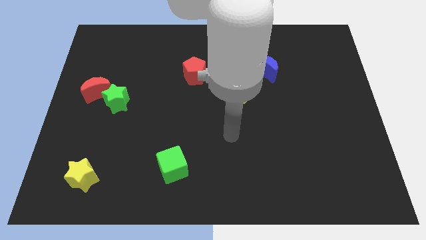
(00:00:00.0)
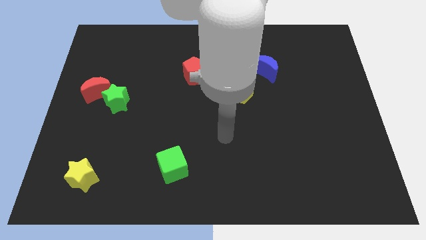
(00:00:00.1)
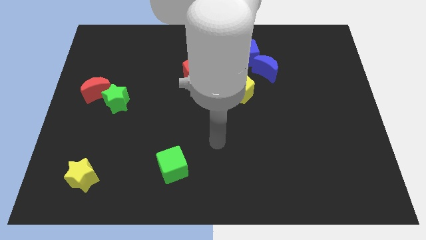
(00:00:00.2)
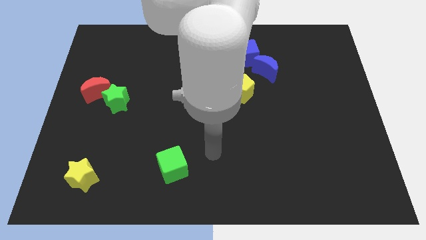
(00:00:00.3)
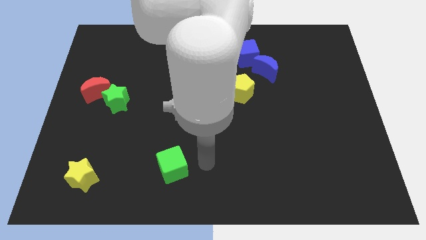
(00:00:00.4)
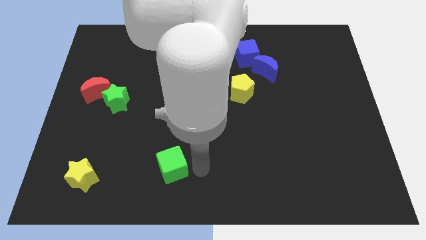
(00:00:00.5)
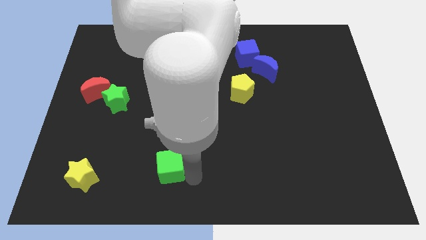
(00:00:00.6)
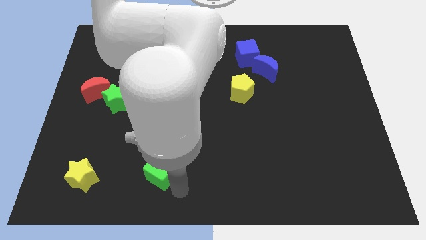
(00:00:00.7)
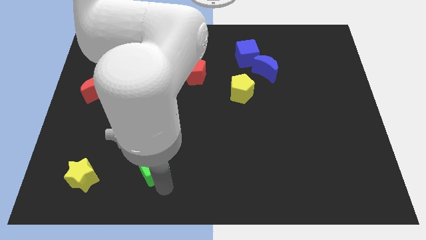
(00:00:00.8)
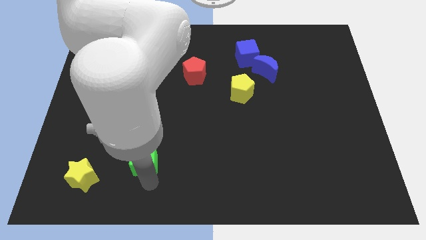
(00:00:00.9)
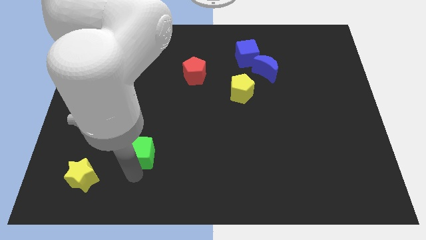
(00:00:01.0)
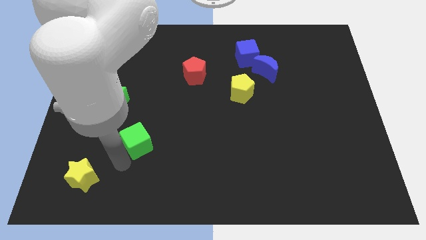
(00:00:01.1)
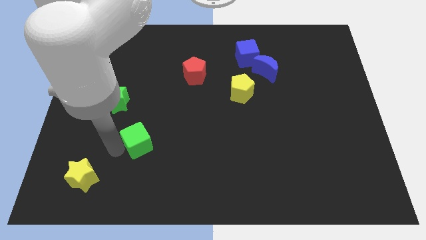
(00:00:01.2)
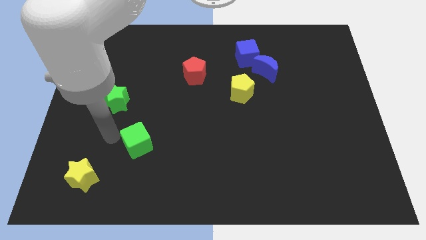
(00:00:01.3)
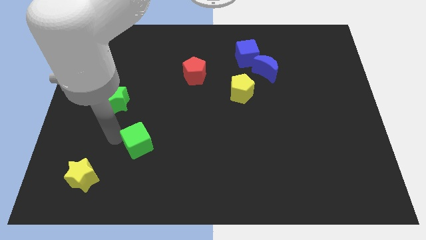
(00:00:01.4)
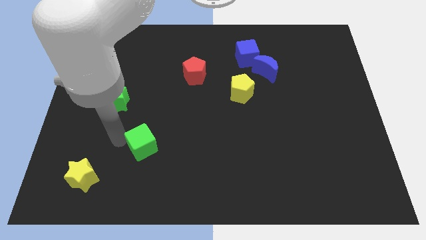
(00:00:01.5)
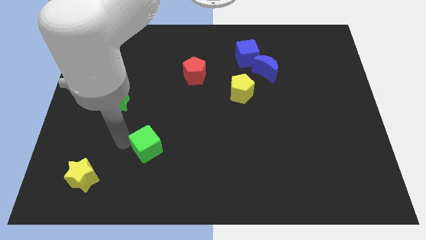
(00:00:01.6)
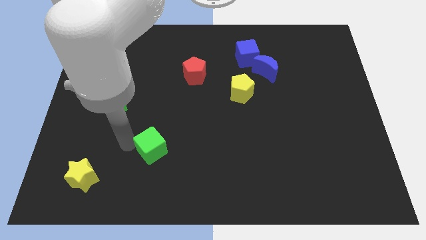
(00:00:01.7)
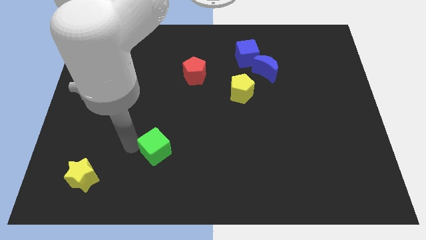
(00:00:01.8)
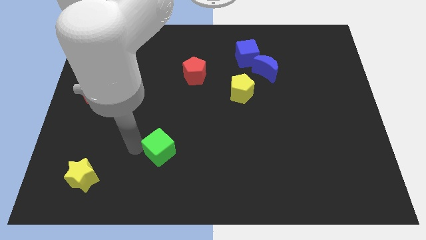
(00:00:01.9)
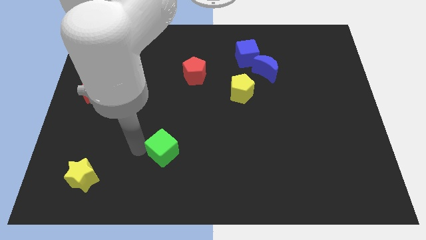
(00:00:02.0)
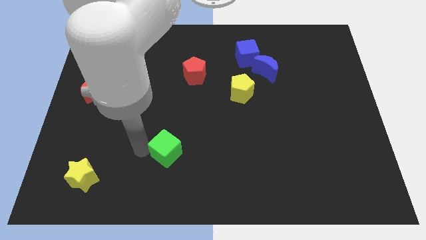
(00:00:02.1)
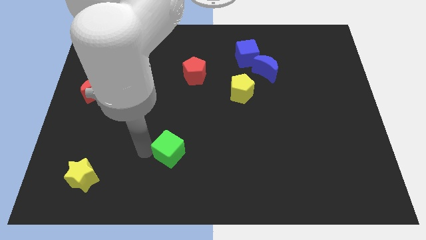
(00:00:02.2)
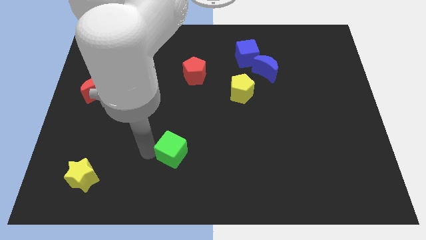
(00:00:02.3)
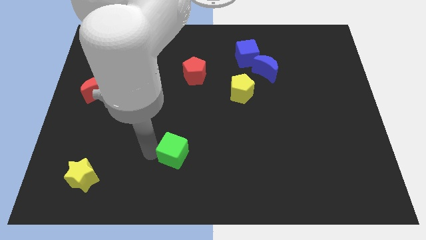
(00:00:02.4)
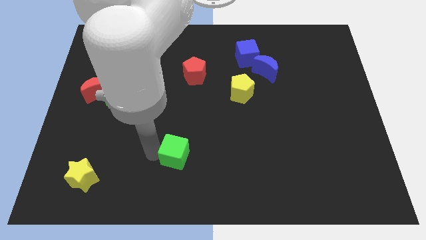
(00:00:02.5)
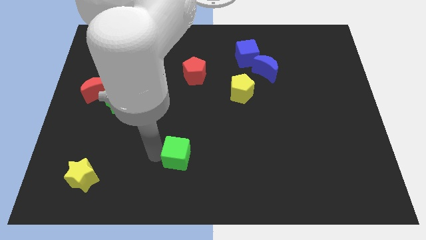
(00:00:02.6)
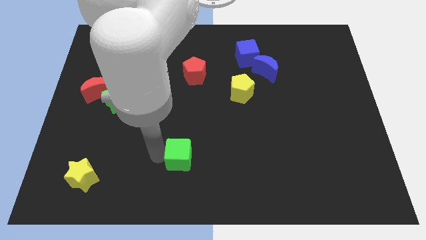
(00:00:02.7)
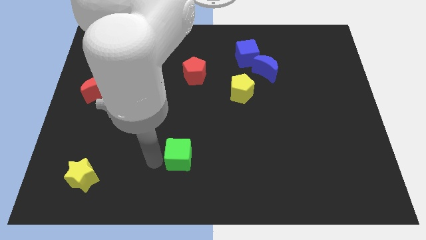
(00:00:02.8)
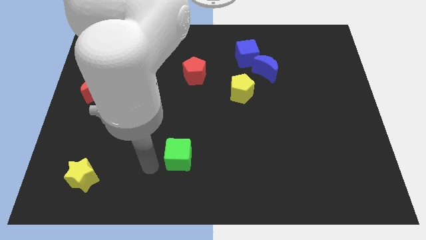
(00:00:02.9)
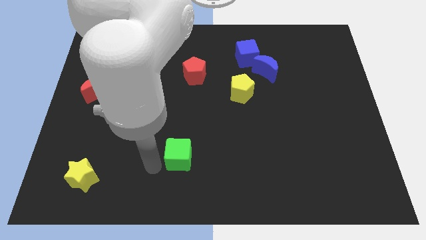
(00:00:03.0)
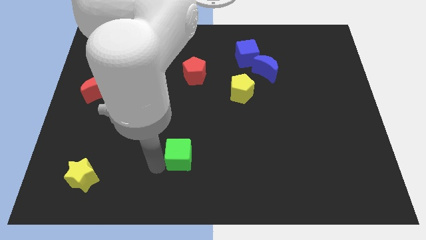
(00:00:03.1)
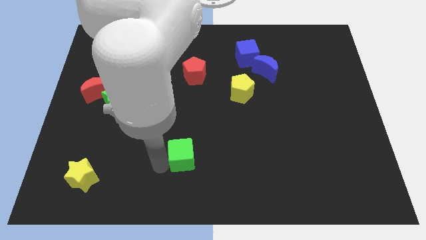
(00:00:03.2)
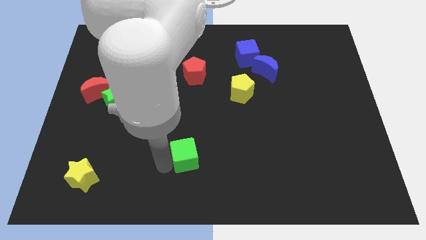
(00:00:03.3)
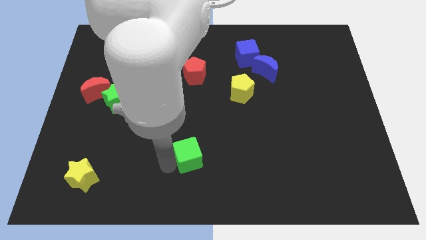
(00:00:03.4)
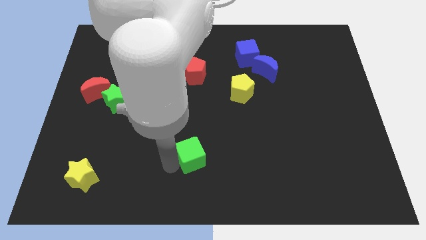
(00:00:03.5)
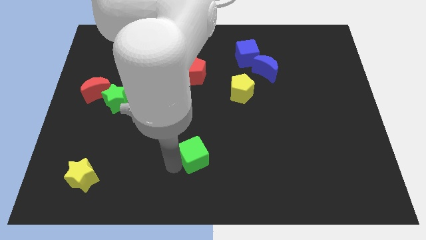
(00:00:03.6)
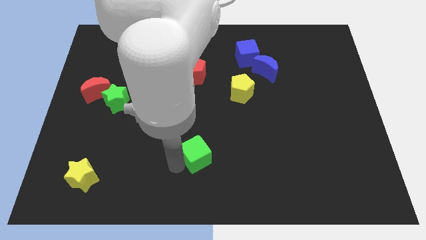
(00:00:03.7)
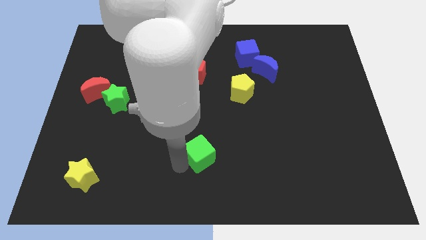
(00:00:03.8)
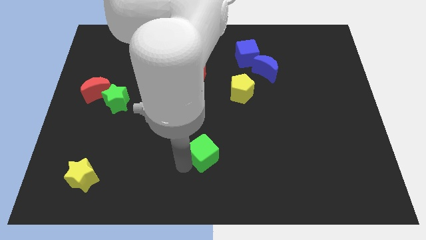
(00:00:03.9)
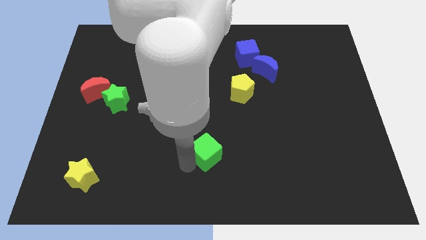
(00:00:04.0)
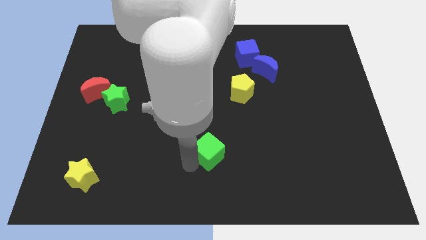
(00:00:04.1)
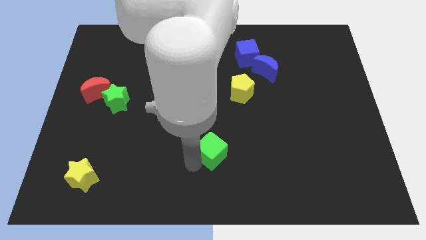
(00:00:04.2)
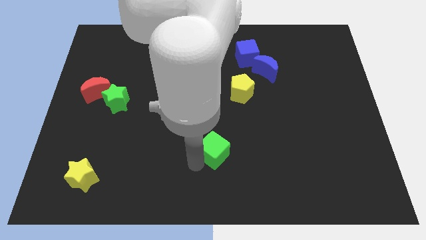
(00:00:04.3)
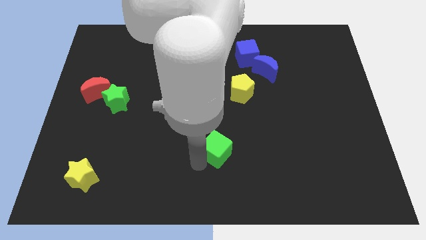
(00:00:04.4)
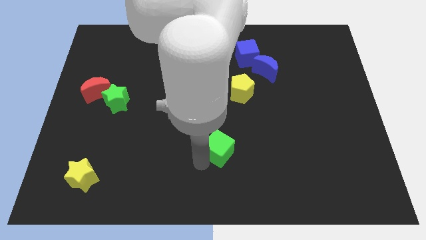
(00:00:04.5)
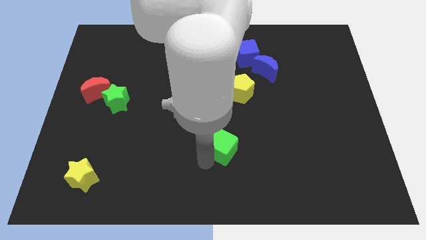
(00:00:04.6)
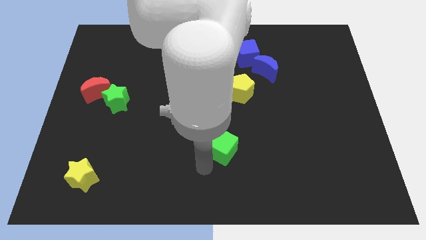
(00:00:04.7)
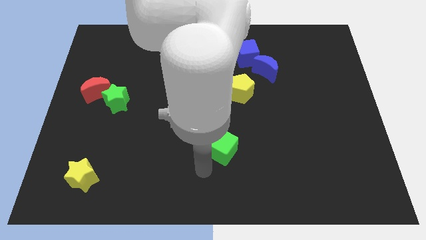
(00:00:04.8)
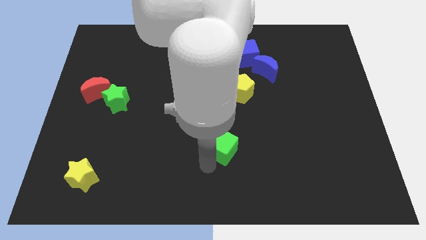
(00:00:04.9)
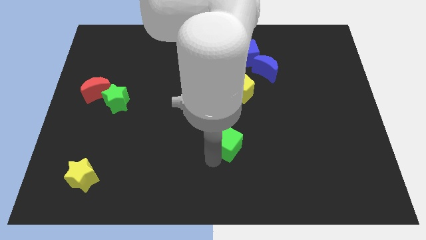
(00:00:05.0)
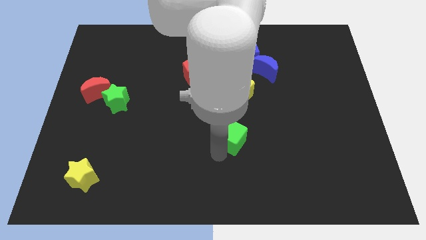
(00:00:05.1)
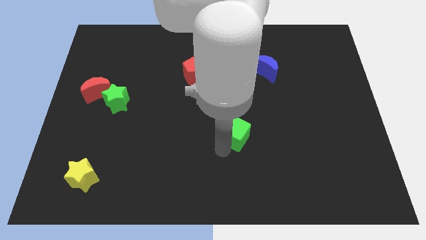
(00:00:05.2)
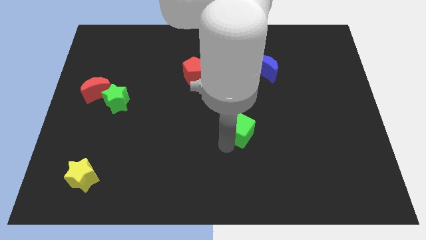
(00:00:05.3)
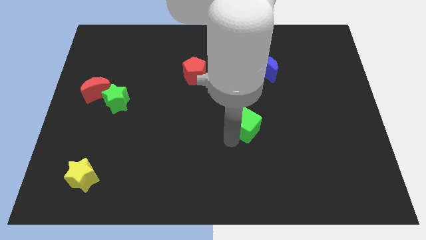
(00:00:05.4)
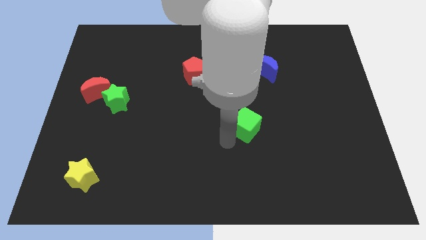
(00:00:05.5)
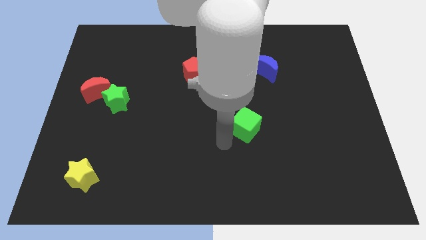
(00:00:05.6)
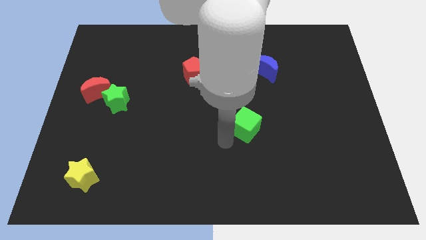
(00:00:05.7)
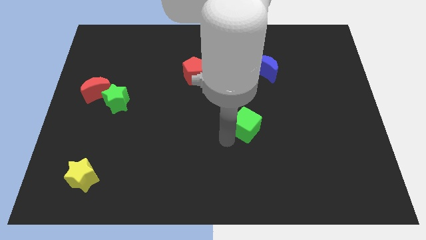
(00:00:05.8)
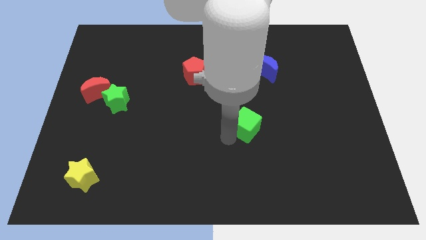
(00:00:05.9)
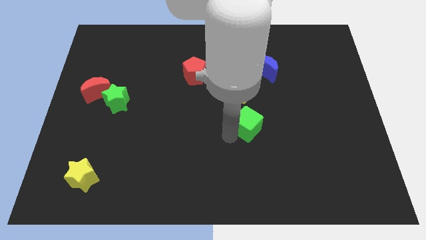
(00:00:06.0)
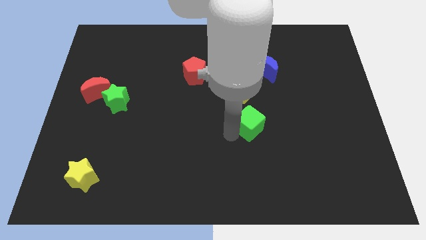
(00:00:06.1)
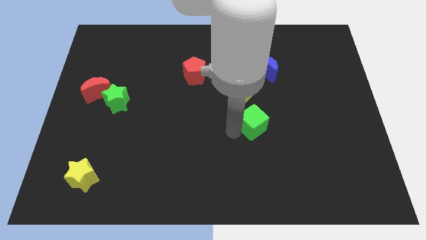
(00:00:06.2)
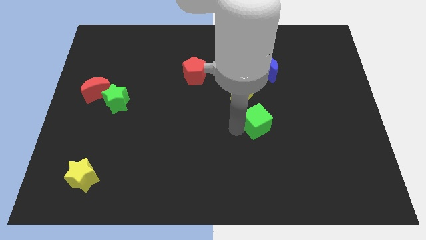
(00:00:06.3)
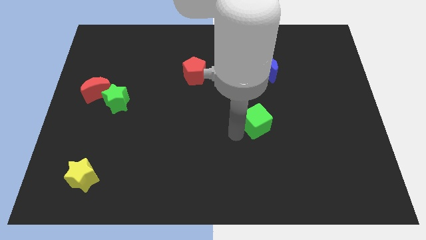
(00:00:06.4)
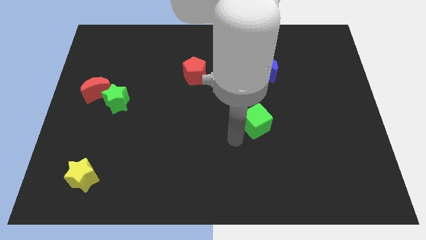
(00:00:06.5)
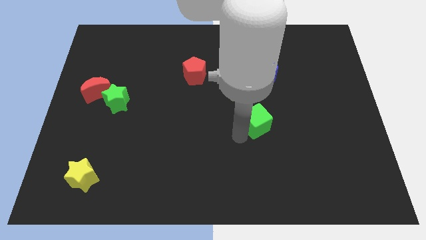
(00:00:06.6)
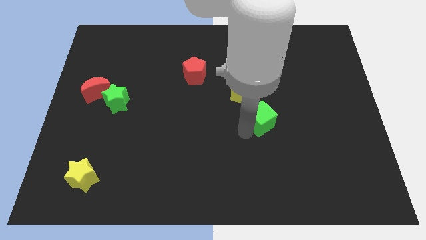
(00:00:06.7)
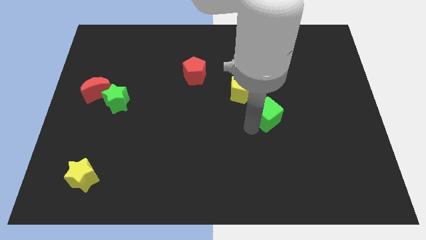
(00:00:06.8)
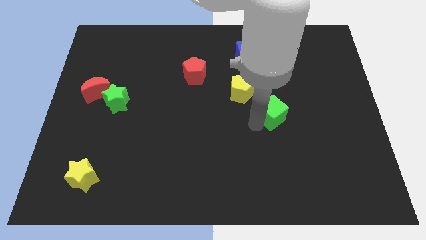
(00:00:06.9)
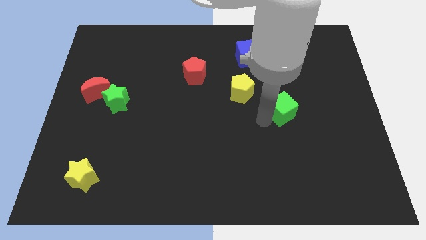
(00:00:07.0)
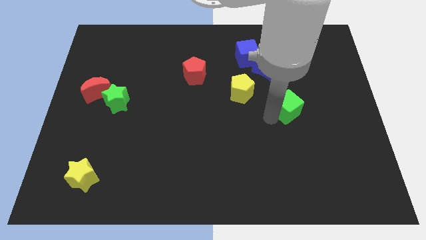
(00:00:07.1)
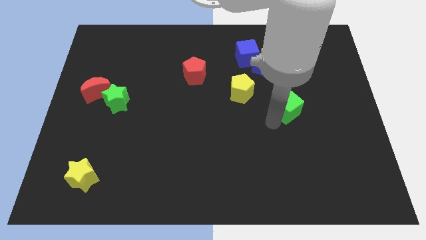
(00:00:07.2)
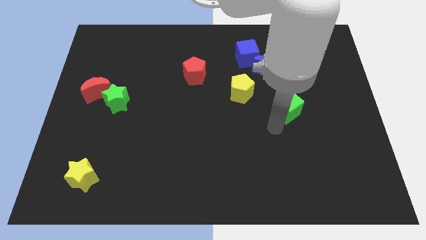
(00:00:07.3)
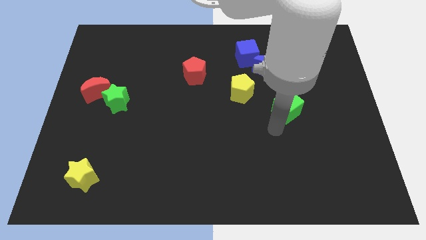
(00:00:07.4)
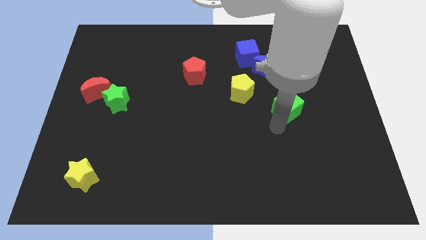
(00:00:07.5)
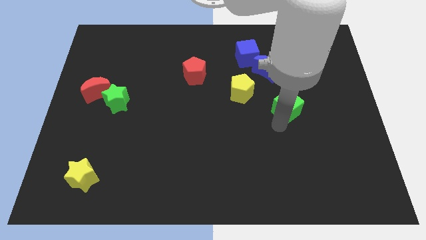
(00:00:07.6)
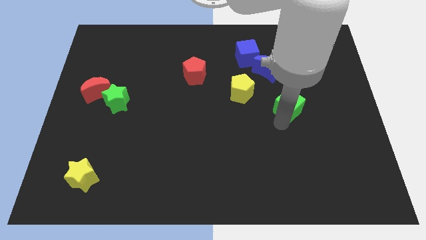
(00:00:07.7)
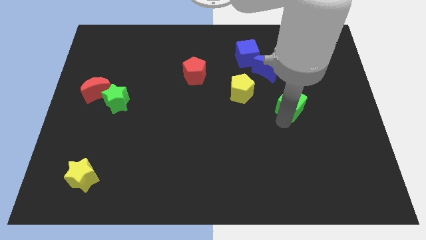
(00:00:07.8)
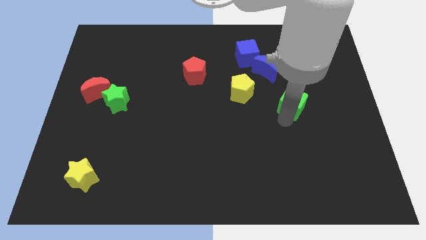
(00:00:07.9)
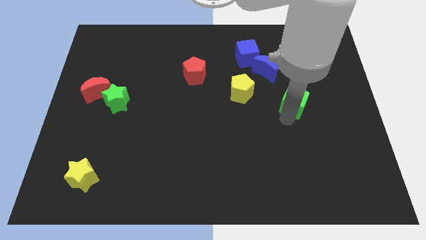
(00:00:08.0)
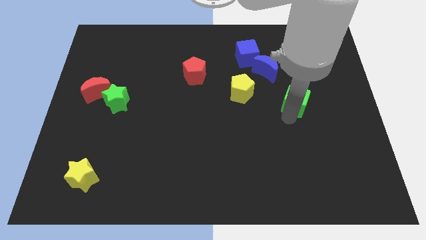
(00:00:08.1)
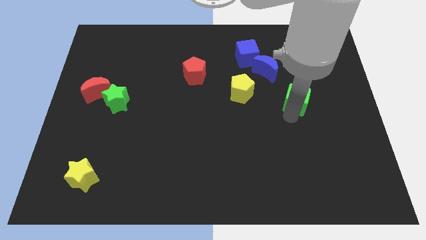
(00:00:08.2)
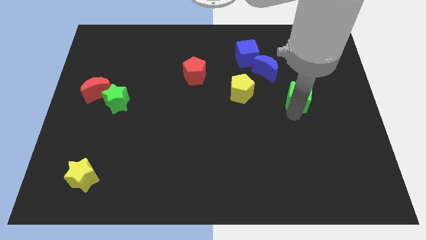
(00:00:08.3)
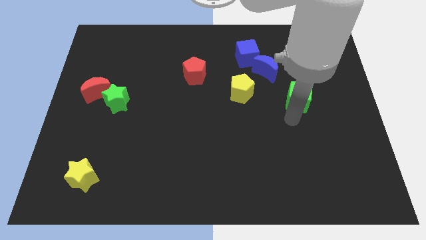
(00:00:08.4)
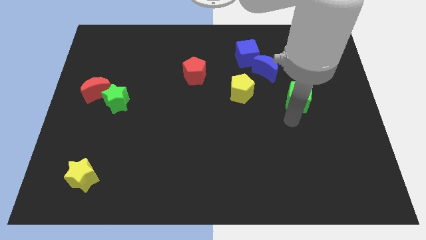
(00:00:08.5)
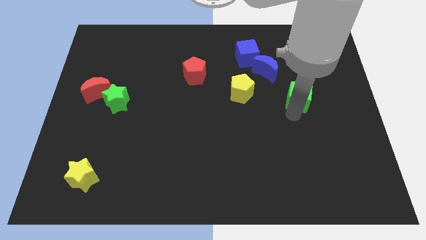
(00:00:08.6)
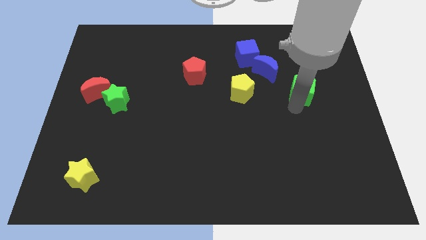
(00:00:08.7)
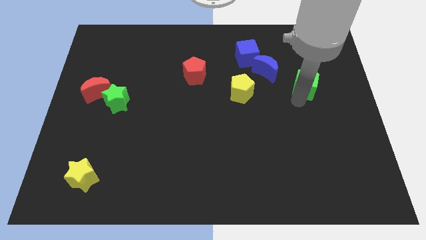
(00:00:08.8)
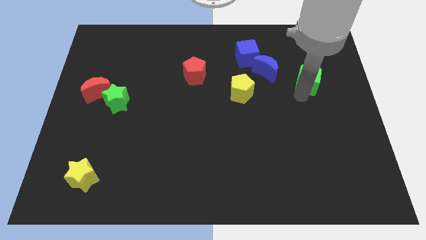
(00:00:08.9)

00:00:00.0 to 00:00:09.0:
move the green cube just right of the blue moon
